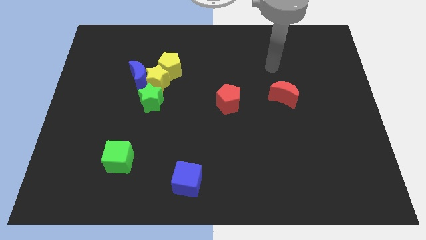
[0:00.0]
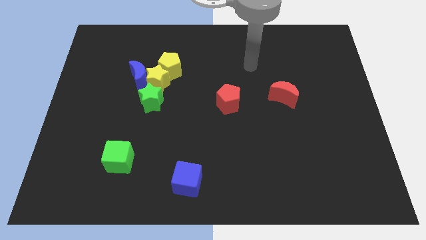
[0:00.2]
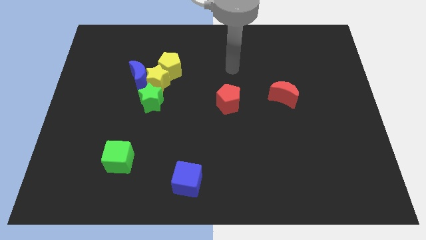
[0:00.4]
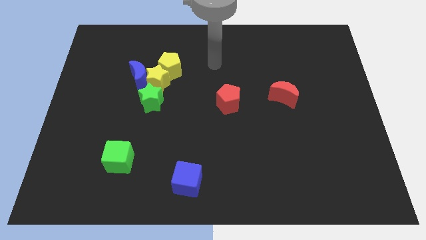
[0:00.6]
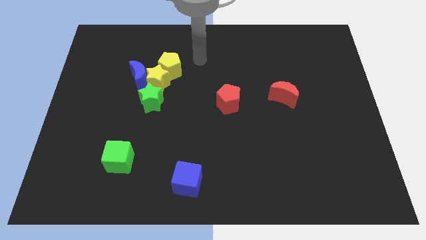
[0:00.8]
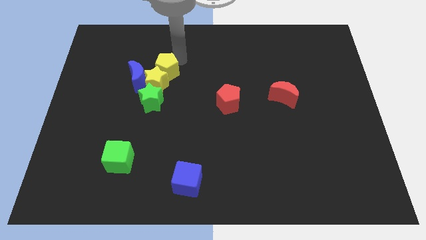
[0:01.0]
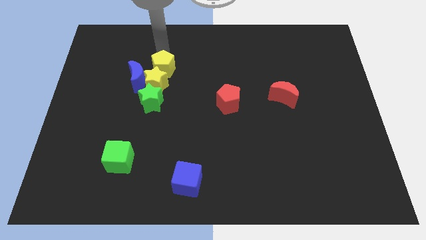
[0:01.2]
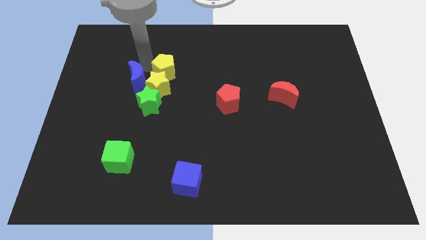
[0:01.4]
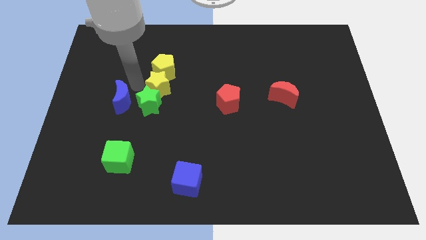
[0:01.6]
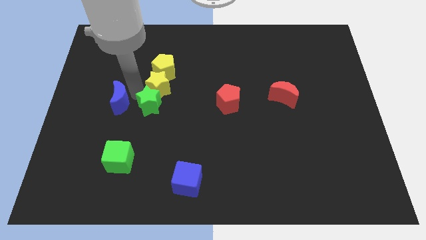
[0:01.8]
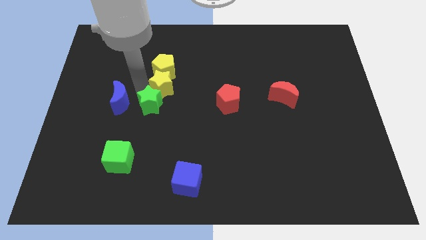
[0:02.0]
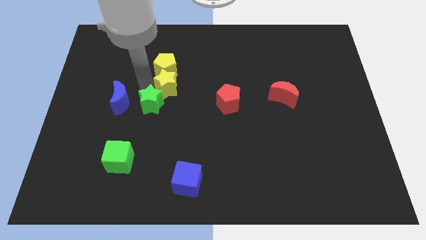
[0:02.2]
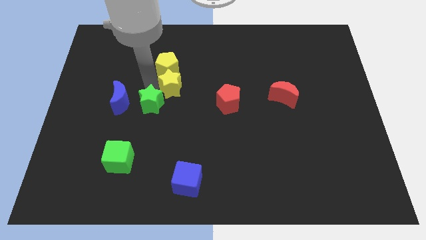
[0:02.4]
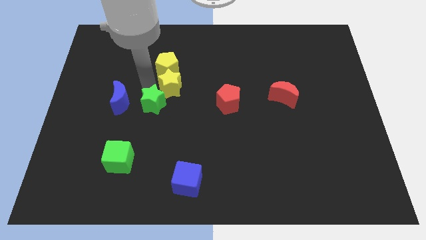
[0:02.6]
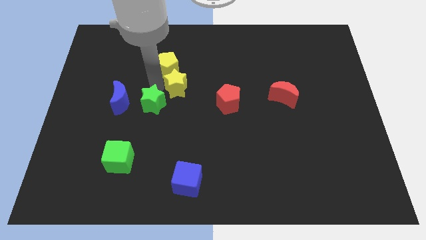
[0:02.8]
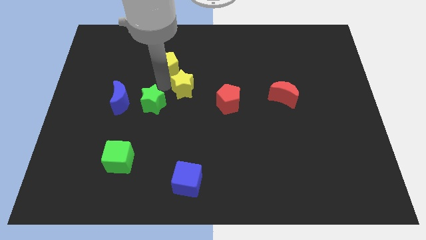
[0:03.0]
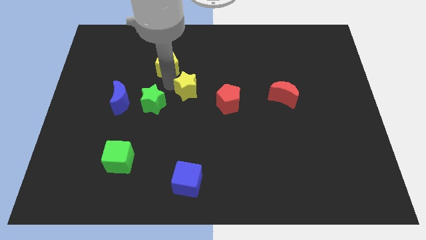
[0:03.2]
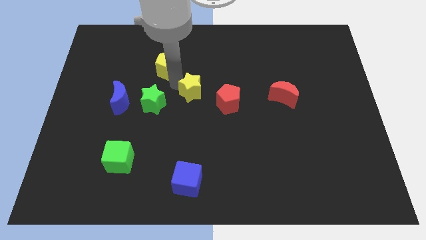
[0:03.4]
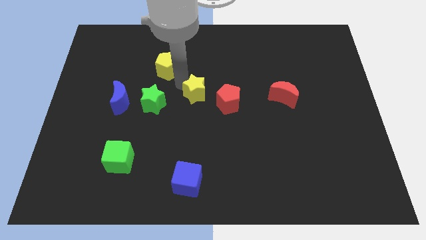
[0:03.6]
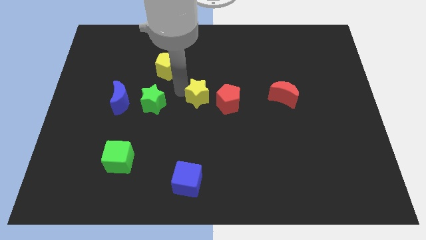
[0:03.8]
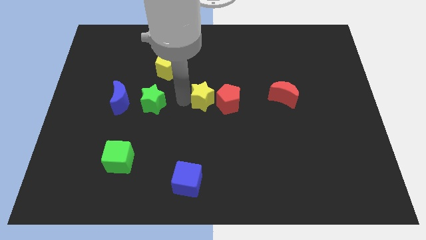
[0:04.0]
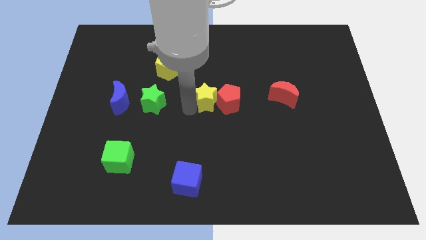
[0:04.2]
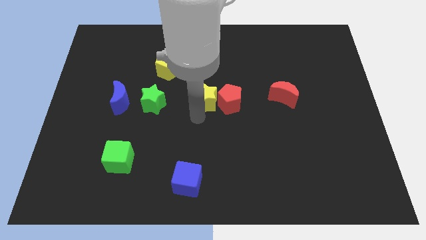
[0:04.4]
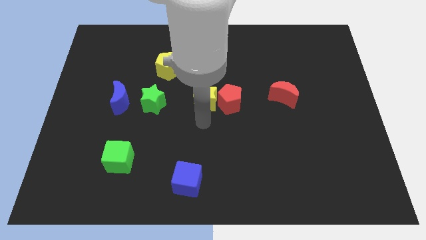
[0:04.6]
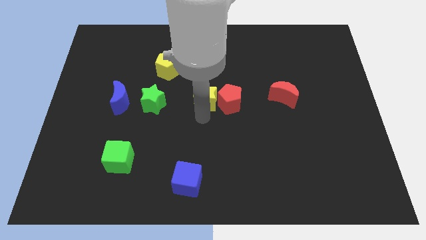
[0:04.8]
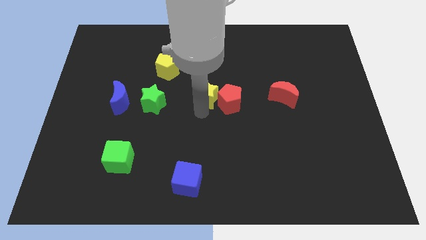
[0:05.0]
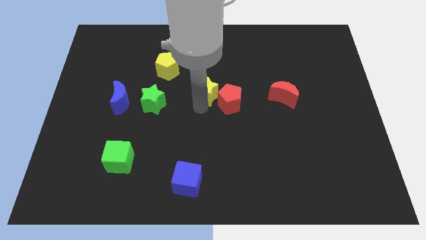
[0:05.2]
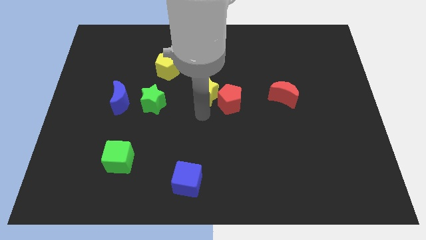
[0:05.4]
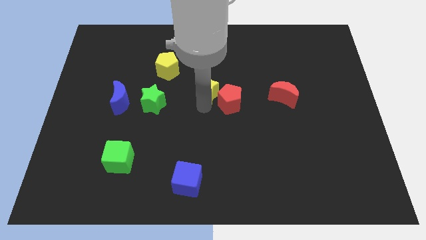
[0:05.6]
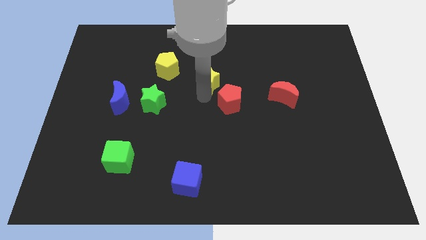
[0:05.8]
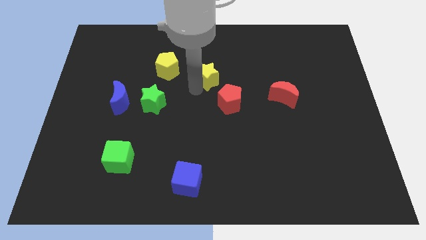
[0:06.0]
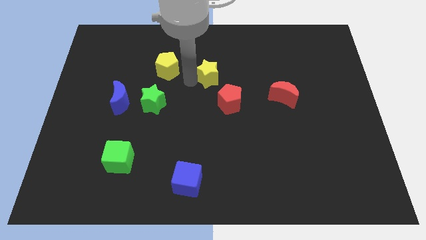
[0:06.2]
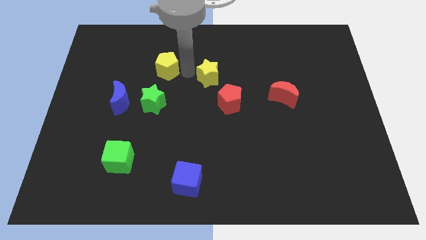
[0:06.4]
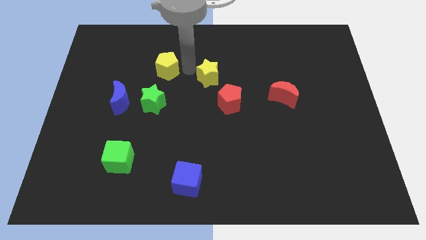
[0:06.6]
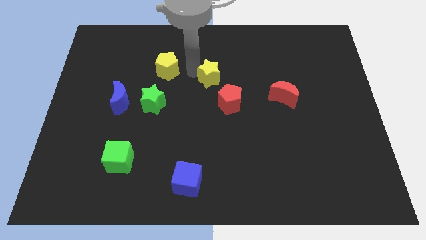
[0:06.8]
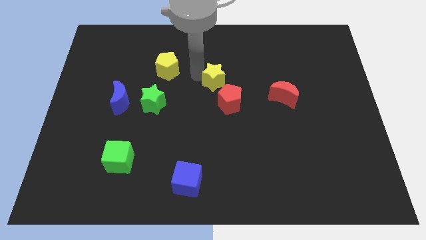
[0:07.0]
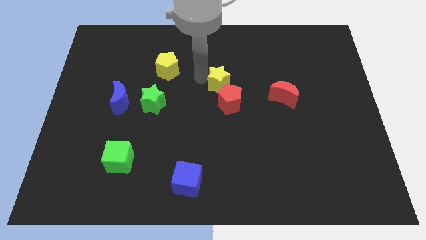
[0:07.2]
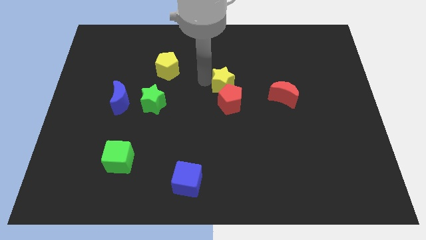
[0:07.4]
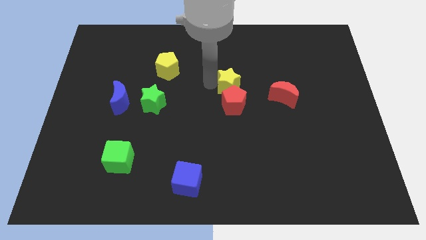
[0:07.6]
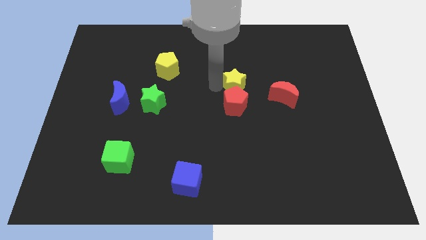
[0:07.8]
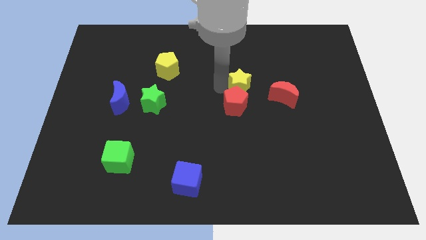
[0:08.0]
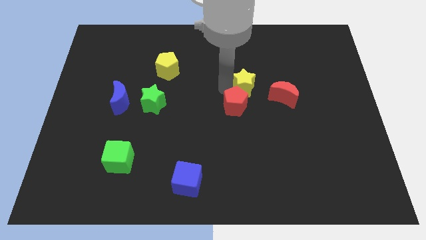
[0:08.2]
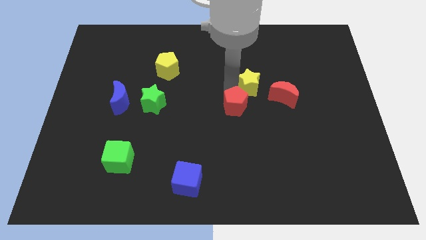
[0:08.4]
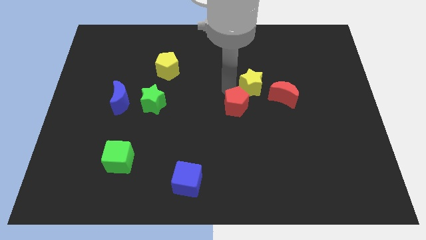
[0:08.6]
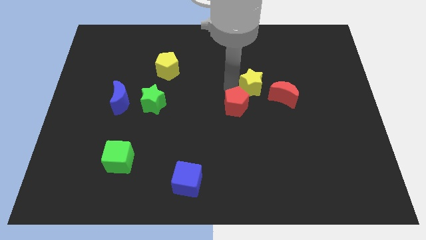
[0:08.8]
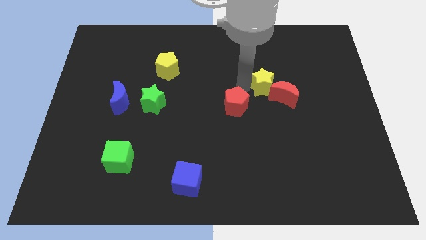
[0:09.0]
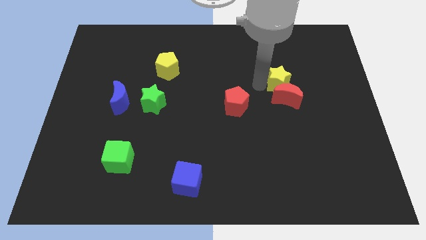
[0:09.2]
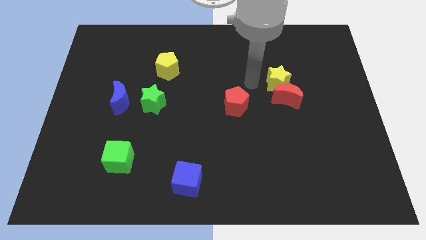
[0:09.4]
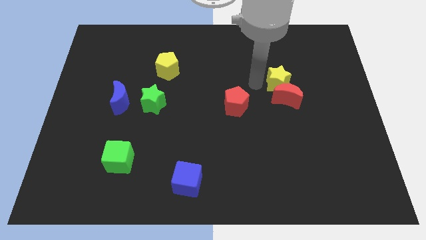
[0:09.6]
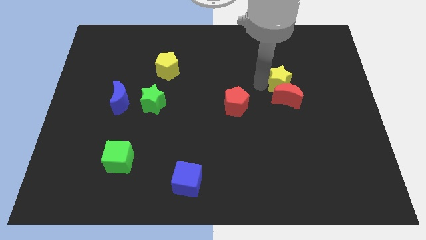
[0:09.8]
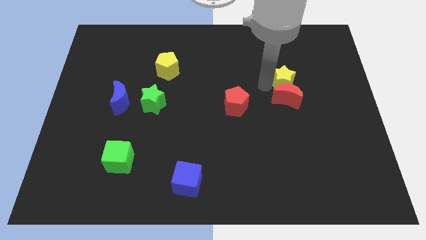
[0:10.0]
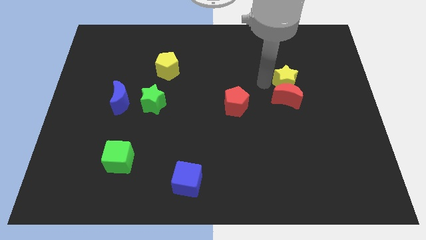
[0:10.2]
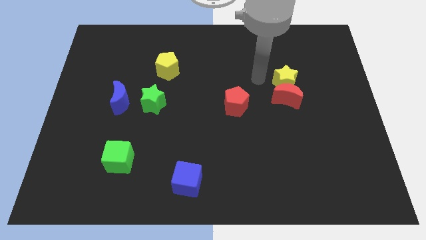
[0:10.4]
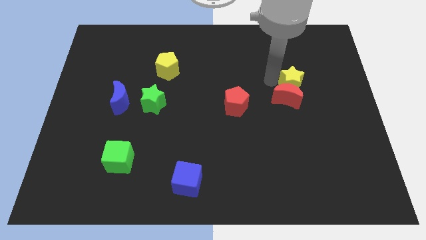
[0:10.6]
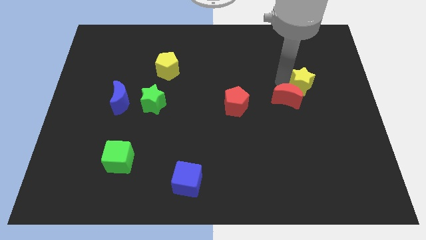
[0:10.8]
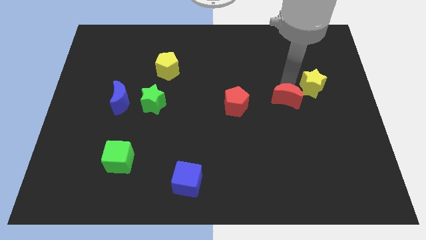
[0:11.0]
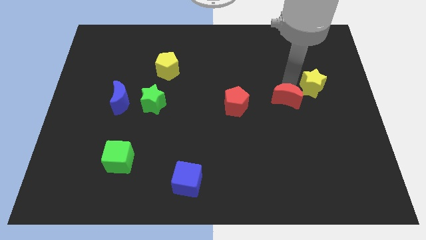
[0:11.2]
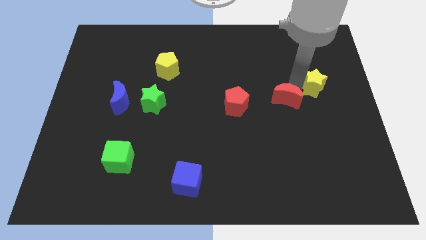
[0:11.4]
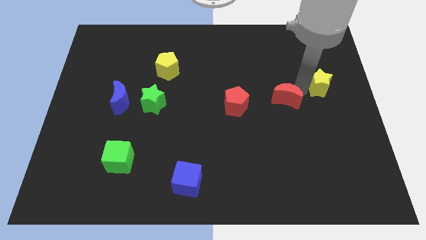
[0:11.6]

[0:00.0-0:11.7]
move the yellow star to the right side

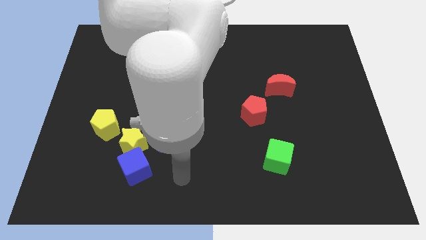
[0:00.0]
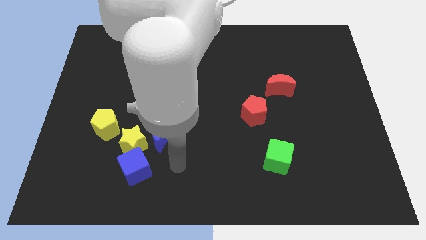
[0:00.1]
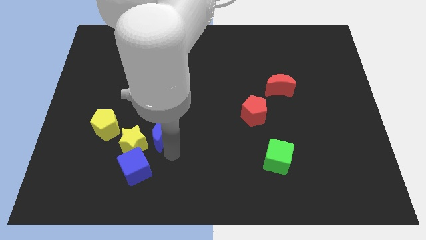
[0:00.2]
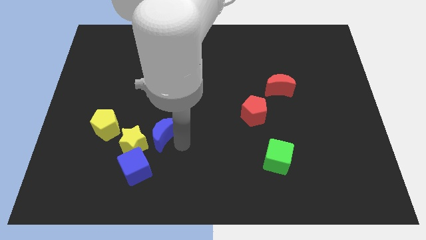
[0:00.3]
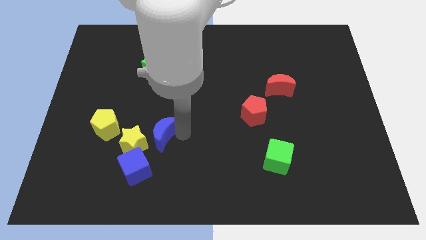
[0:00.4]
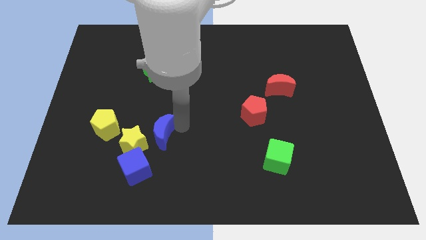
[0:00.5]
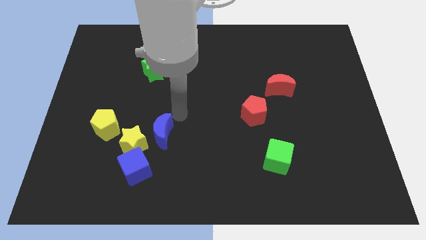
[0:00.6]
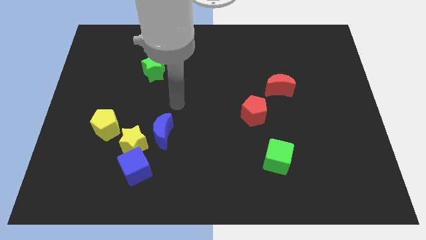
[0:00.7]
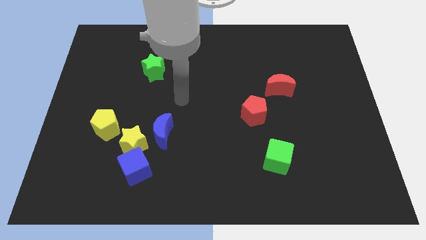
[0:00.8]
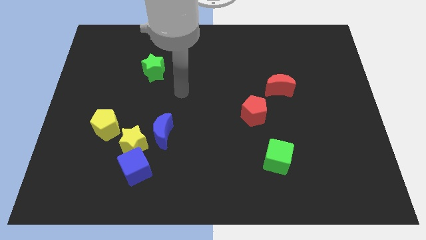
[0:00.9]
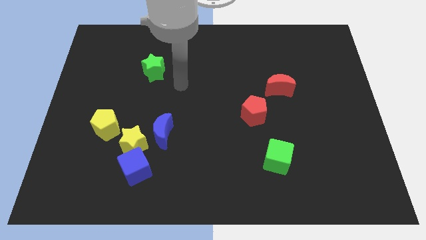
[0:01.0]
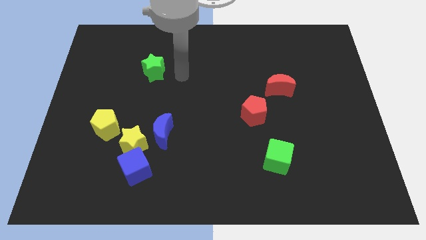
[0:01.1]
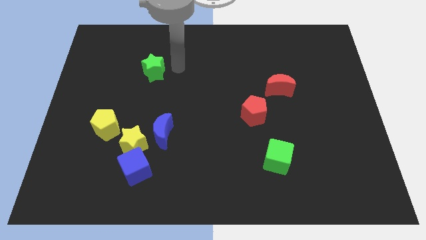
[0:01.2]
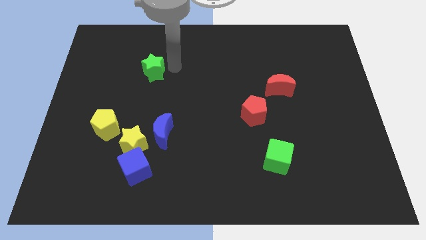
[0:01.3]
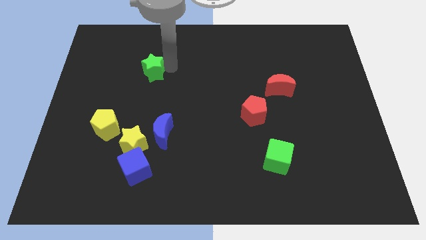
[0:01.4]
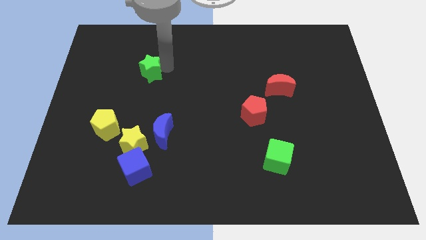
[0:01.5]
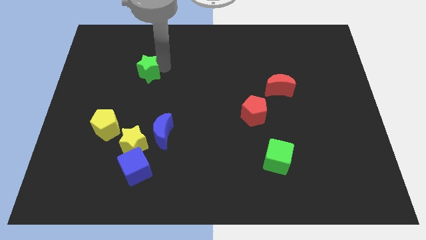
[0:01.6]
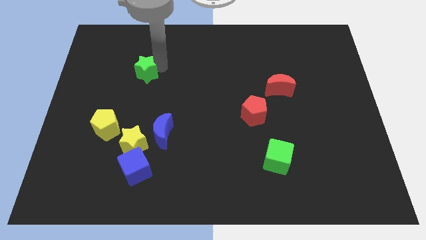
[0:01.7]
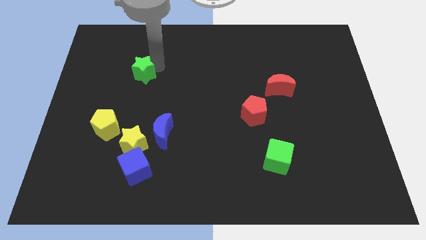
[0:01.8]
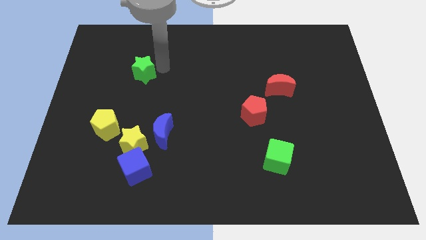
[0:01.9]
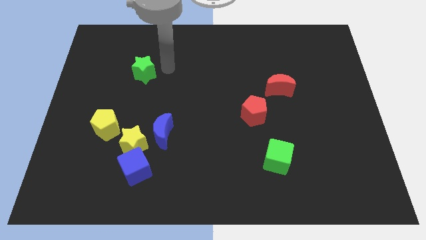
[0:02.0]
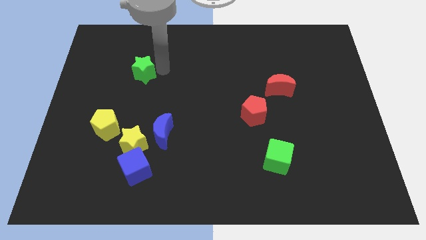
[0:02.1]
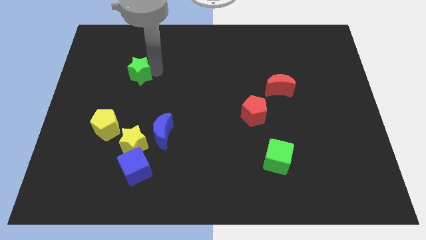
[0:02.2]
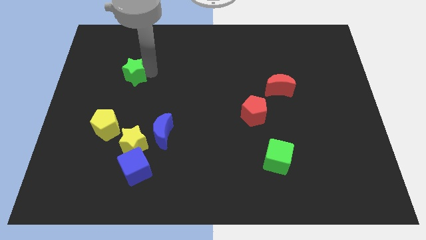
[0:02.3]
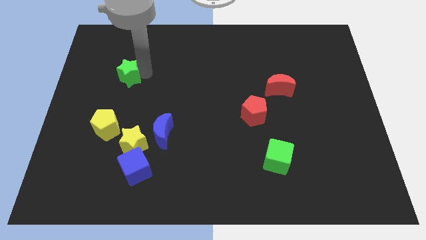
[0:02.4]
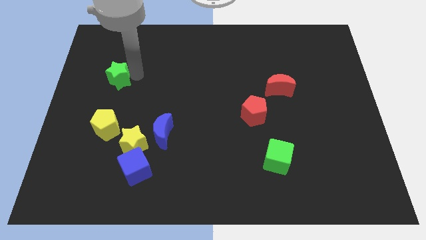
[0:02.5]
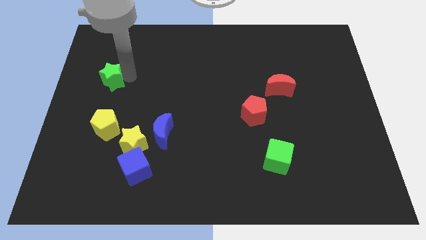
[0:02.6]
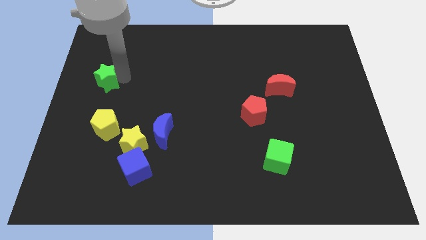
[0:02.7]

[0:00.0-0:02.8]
slide the green star to the center left
